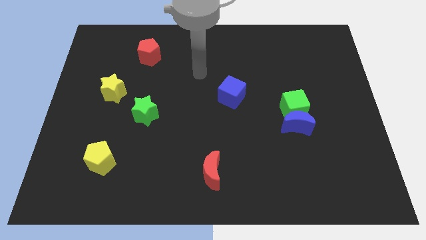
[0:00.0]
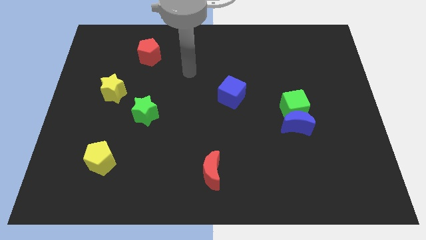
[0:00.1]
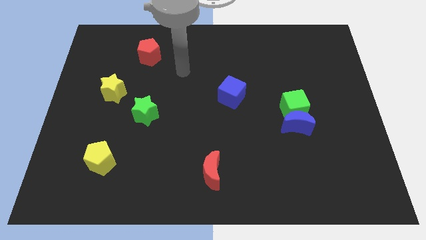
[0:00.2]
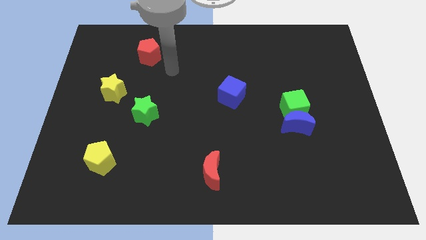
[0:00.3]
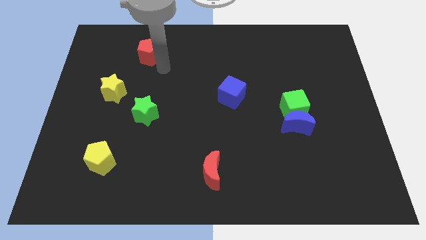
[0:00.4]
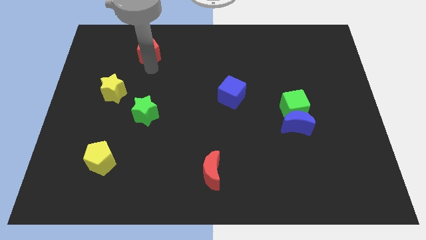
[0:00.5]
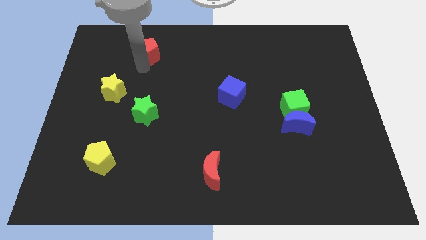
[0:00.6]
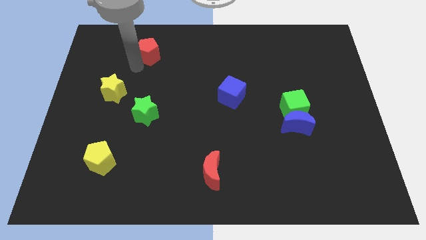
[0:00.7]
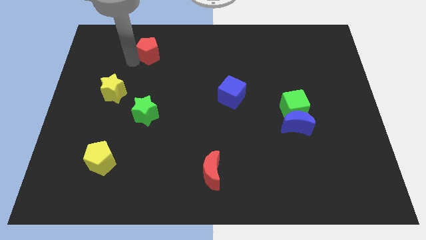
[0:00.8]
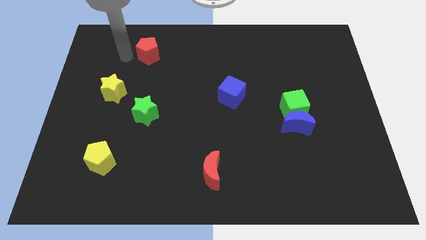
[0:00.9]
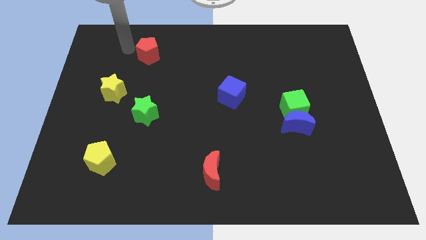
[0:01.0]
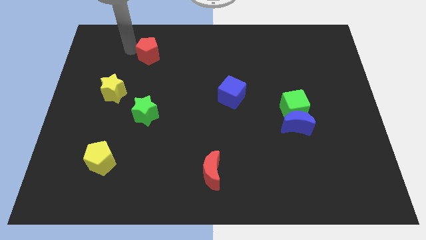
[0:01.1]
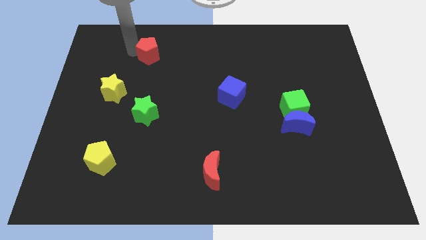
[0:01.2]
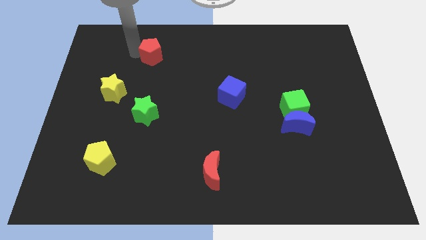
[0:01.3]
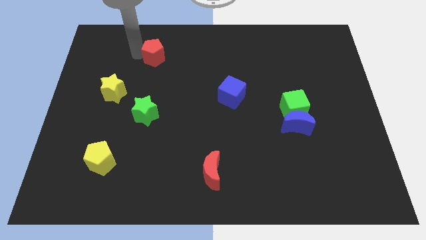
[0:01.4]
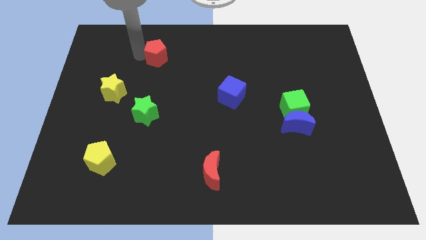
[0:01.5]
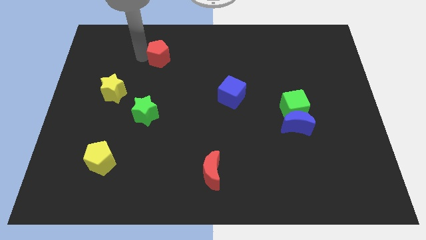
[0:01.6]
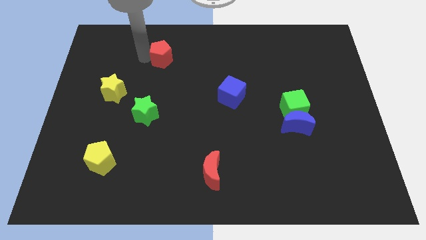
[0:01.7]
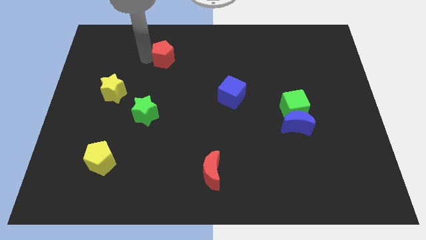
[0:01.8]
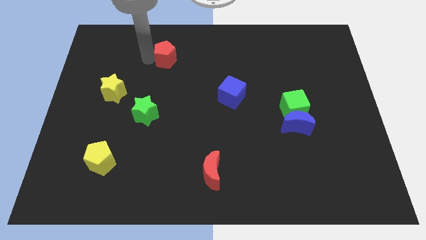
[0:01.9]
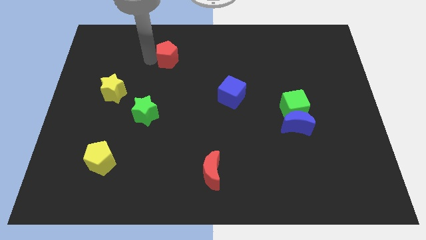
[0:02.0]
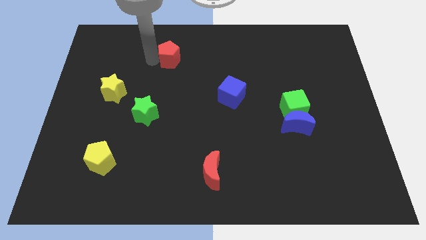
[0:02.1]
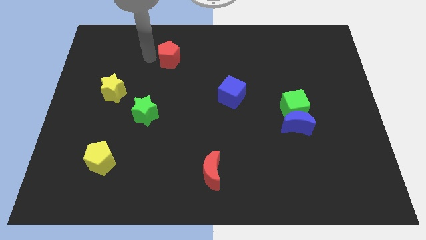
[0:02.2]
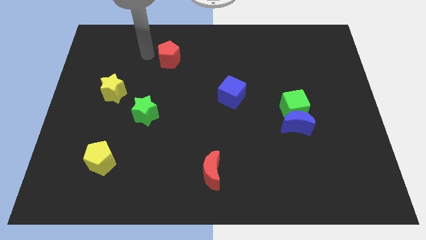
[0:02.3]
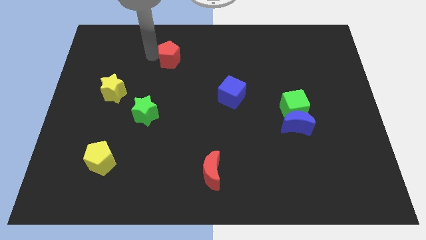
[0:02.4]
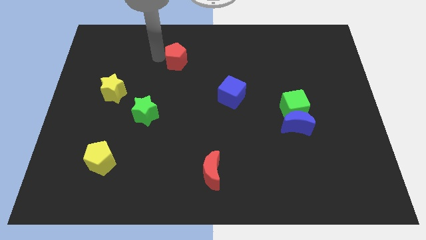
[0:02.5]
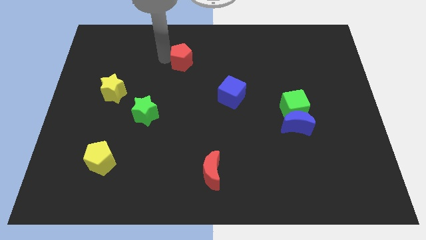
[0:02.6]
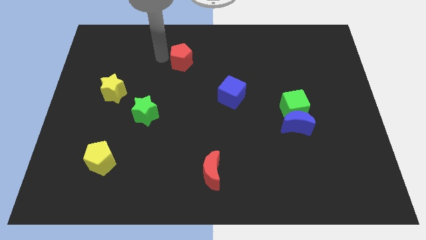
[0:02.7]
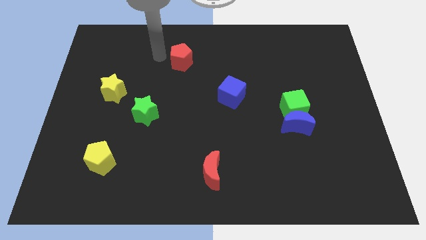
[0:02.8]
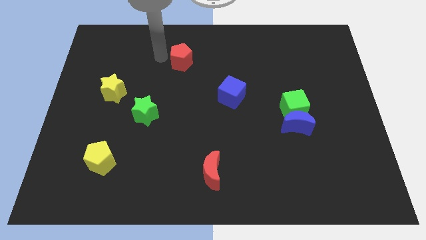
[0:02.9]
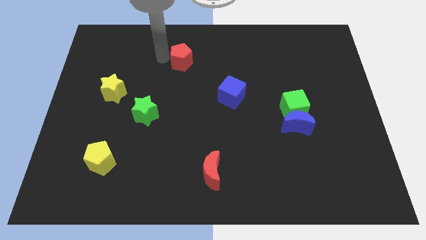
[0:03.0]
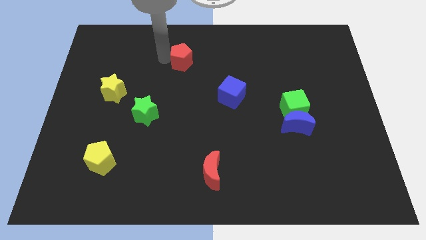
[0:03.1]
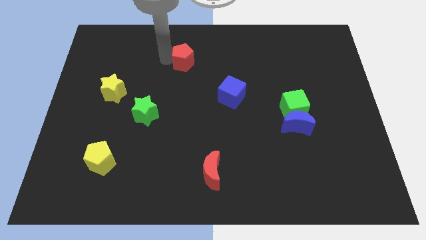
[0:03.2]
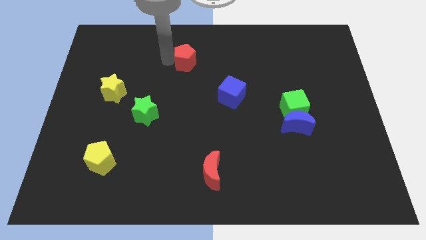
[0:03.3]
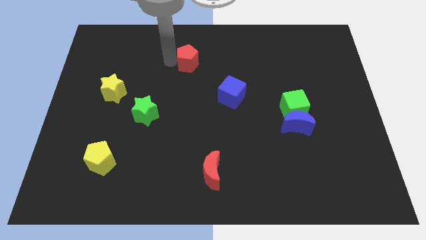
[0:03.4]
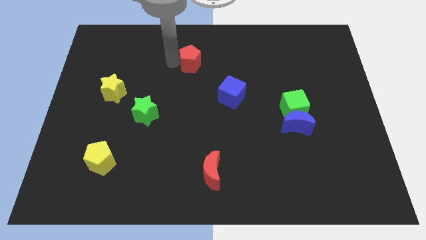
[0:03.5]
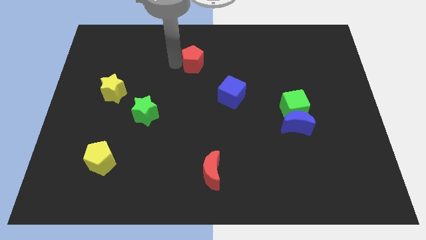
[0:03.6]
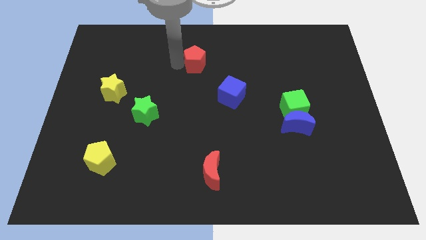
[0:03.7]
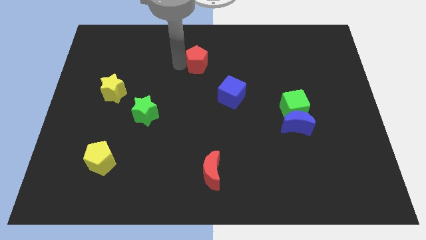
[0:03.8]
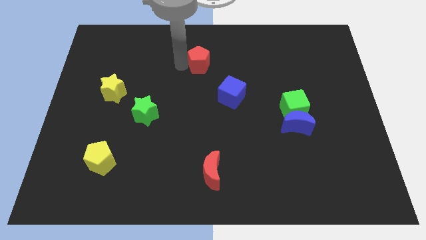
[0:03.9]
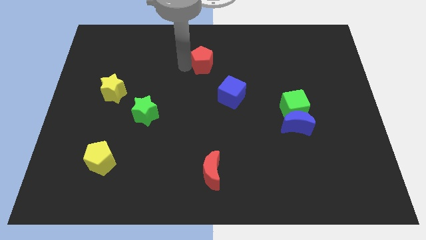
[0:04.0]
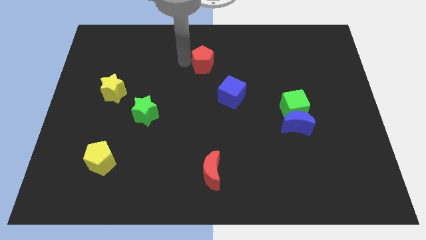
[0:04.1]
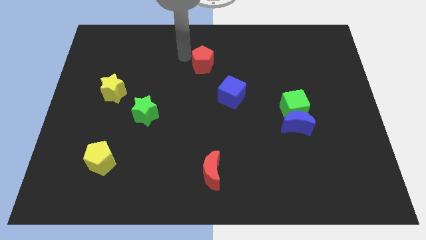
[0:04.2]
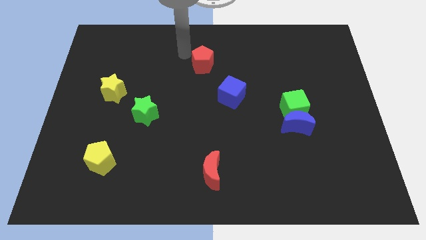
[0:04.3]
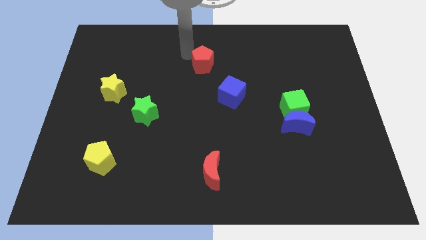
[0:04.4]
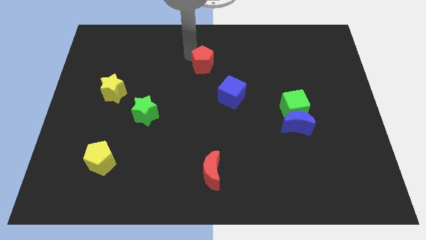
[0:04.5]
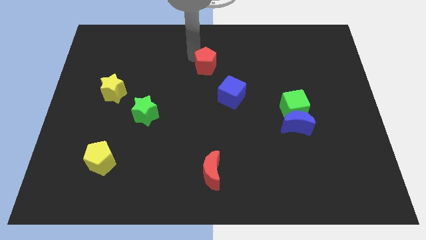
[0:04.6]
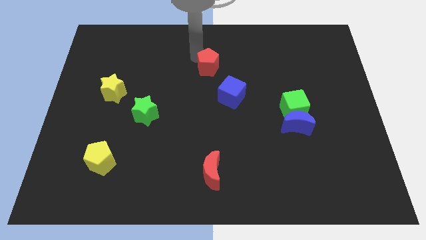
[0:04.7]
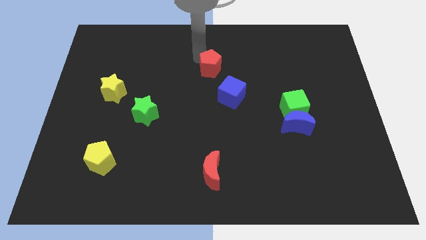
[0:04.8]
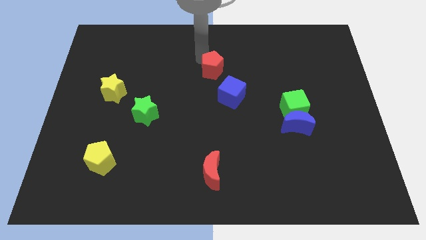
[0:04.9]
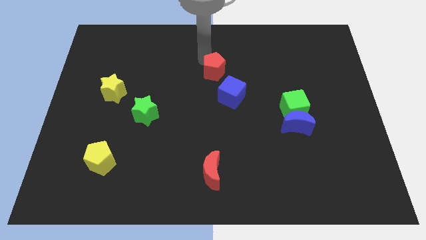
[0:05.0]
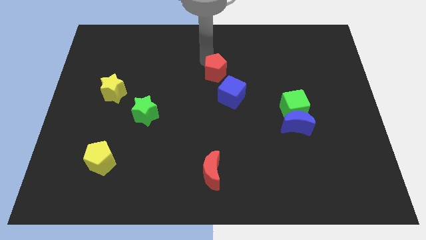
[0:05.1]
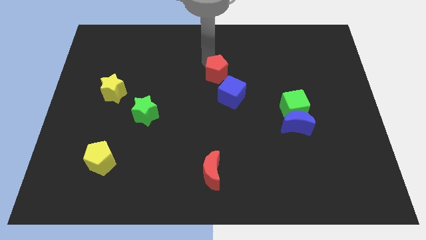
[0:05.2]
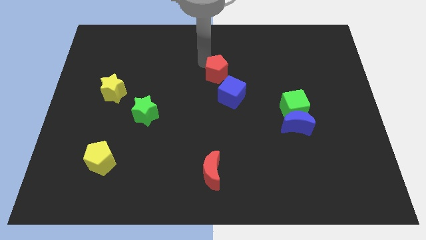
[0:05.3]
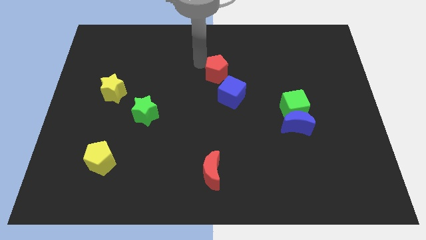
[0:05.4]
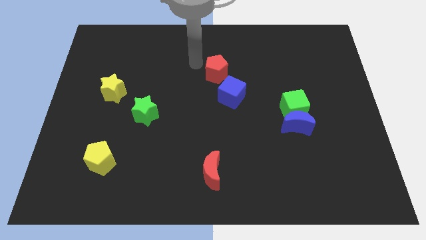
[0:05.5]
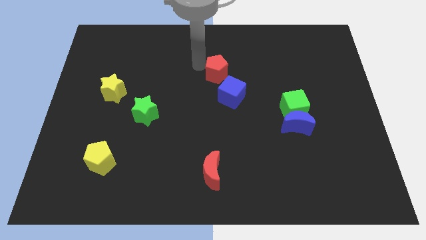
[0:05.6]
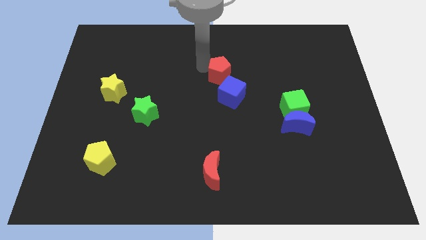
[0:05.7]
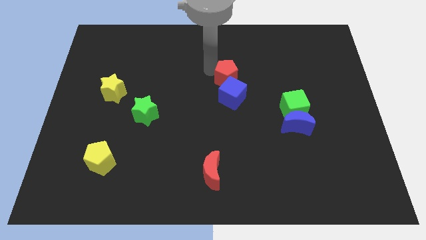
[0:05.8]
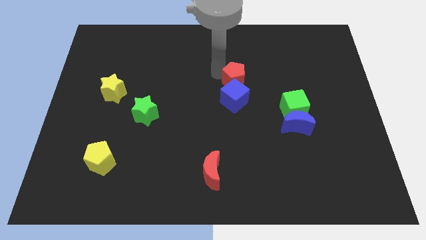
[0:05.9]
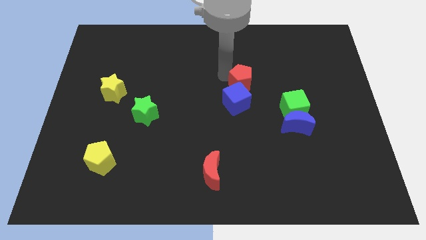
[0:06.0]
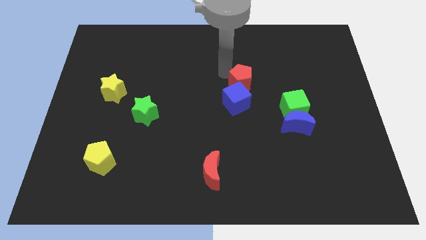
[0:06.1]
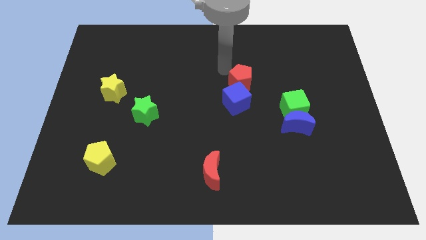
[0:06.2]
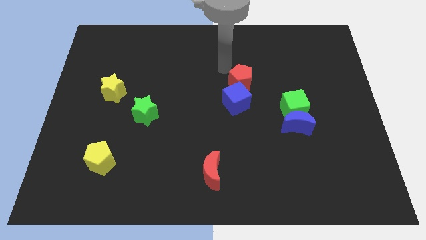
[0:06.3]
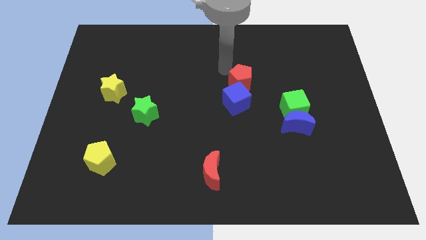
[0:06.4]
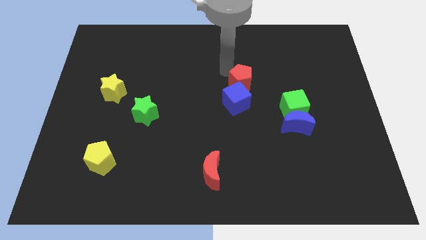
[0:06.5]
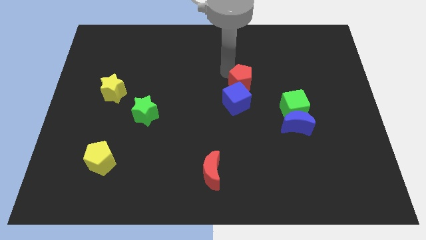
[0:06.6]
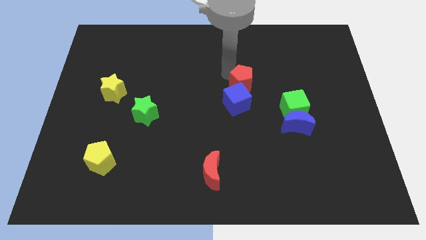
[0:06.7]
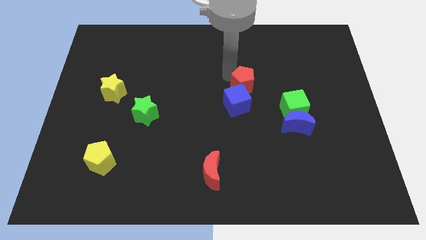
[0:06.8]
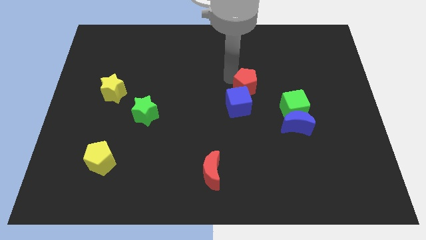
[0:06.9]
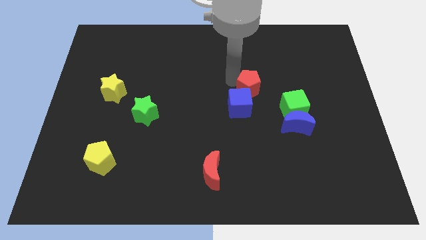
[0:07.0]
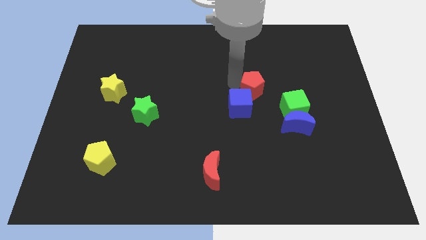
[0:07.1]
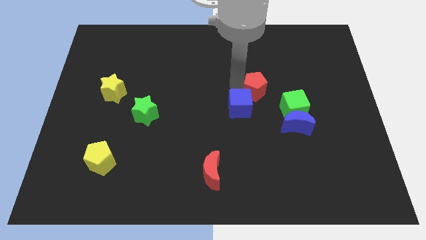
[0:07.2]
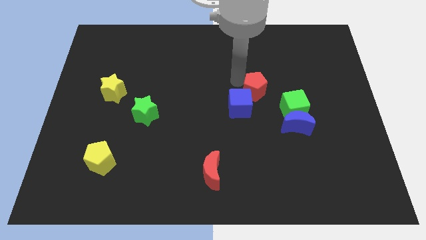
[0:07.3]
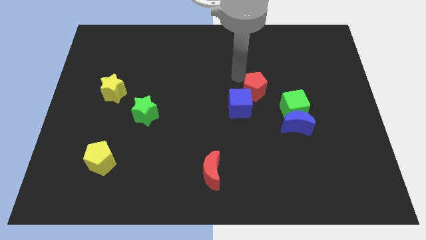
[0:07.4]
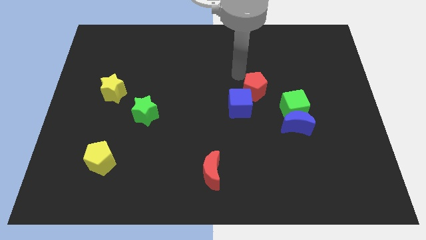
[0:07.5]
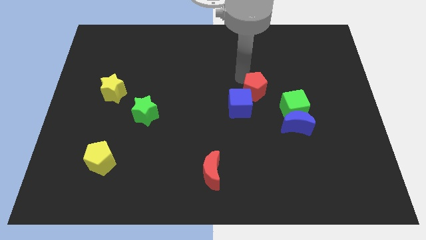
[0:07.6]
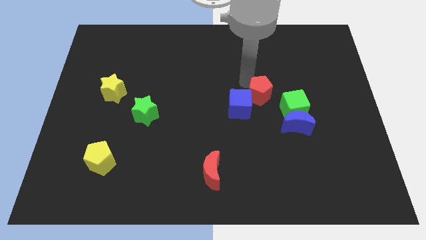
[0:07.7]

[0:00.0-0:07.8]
move the red pentagon diagonally up and to the left of the blue moon
